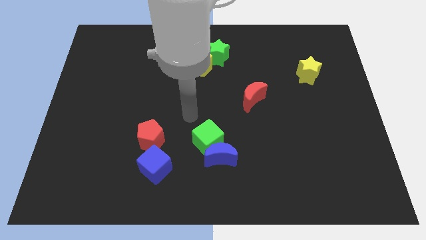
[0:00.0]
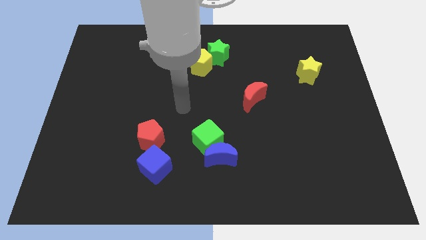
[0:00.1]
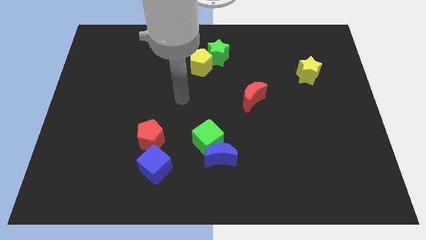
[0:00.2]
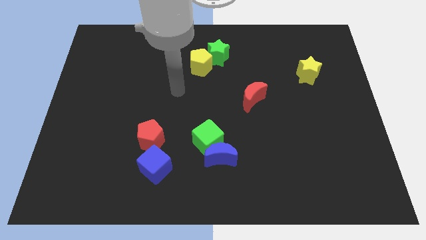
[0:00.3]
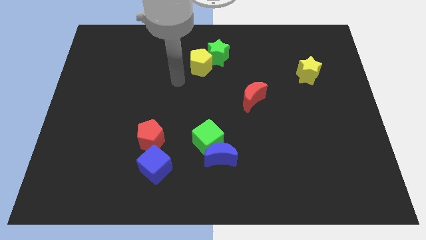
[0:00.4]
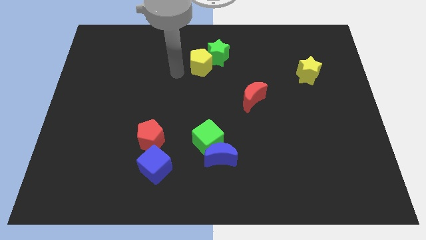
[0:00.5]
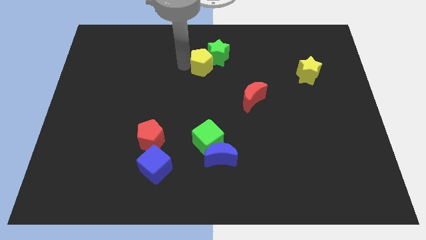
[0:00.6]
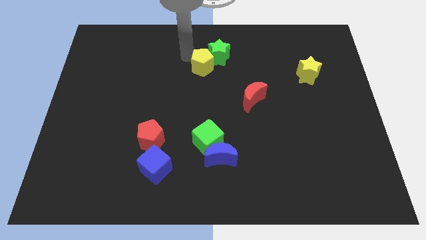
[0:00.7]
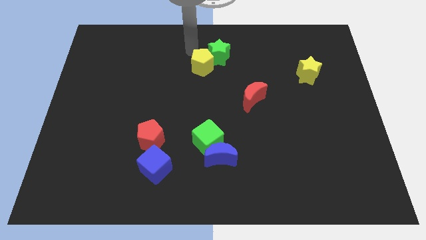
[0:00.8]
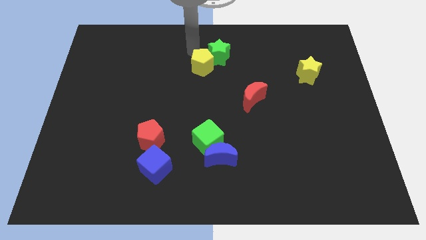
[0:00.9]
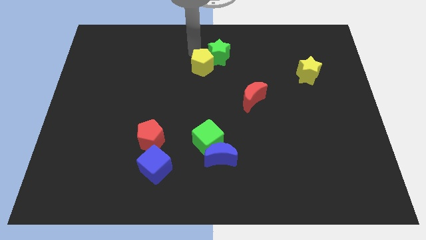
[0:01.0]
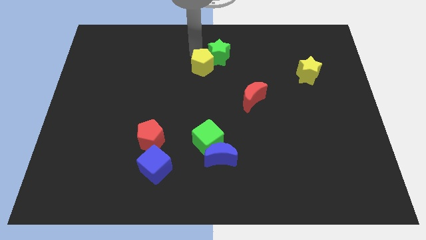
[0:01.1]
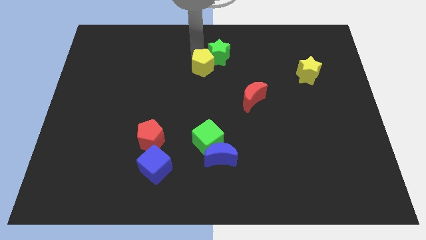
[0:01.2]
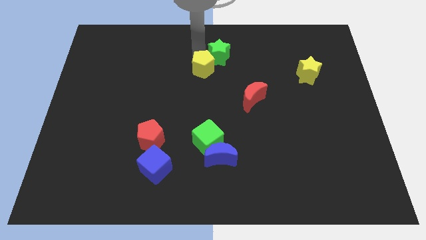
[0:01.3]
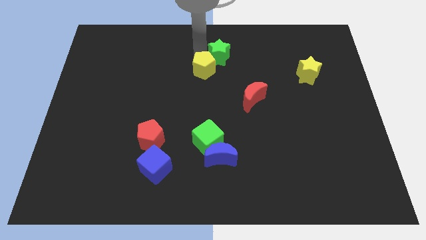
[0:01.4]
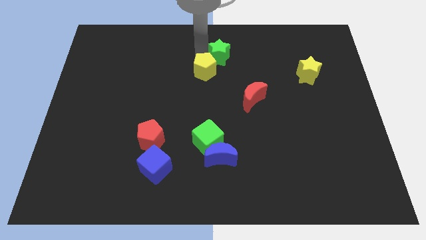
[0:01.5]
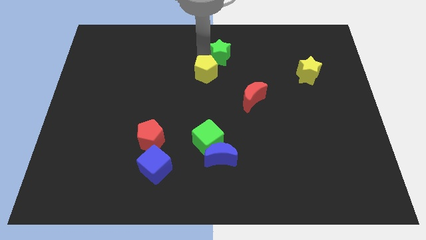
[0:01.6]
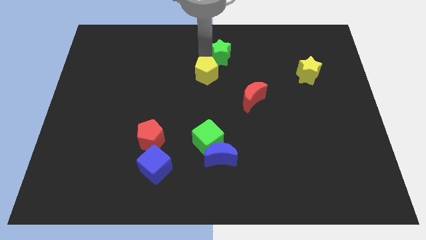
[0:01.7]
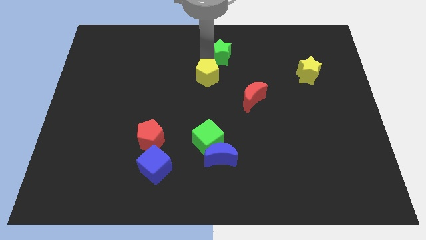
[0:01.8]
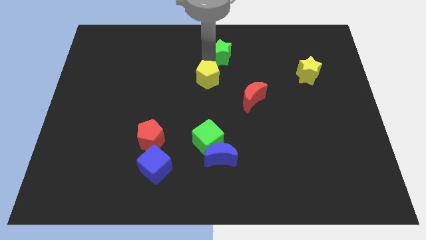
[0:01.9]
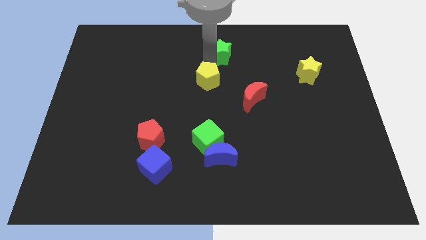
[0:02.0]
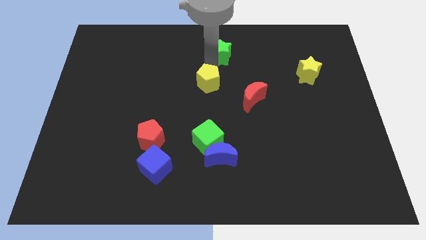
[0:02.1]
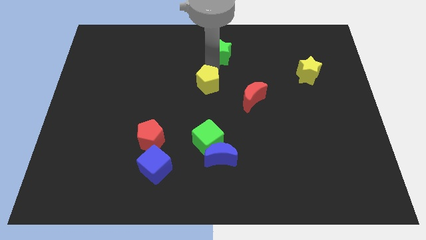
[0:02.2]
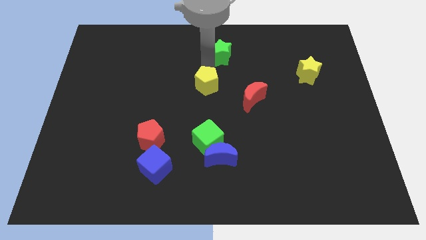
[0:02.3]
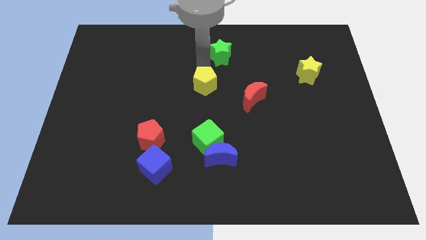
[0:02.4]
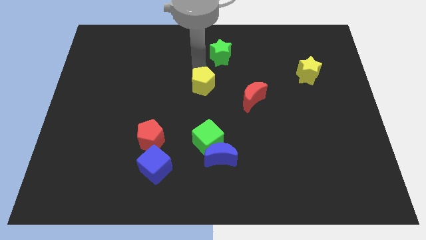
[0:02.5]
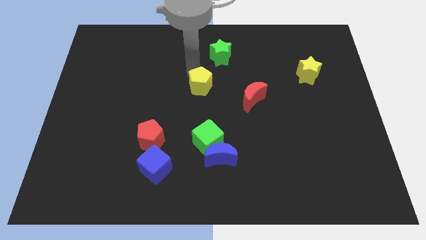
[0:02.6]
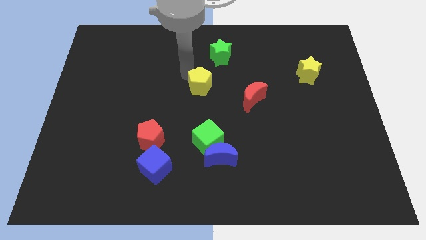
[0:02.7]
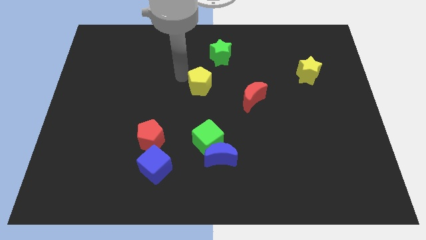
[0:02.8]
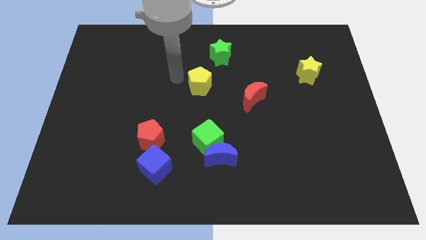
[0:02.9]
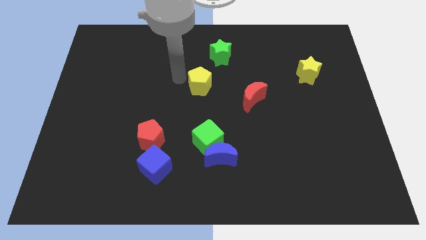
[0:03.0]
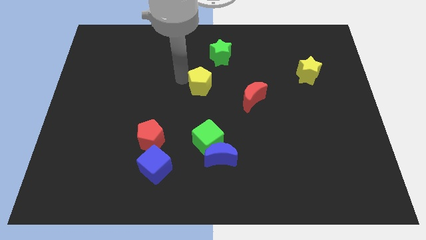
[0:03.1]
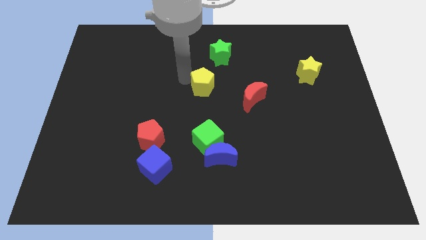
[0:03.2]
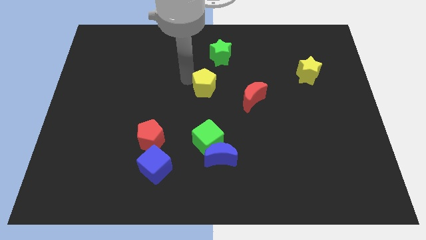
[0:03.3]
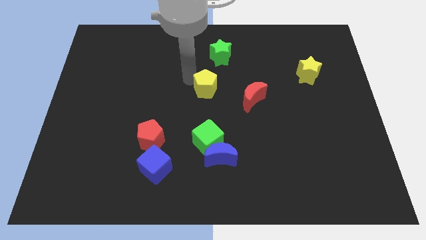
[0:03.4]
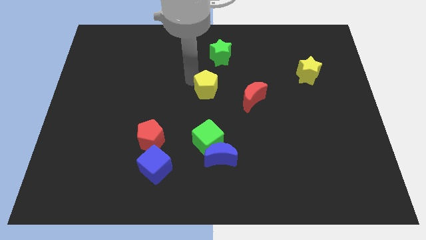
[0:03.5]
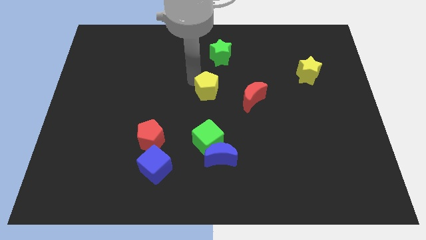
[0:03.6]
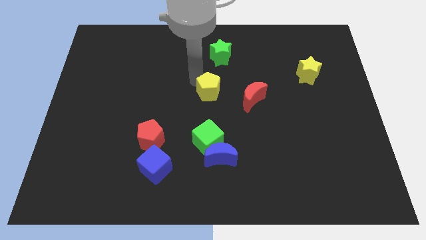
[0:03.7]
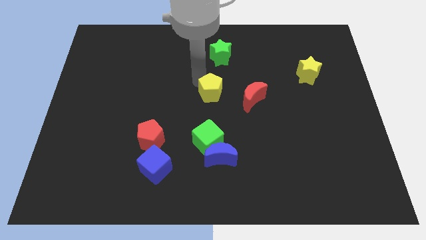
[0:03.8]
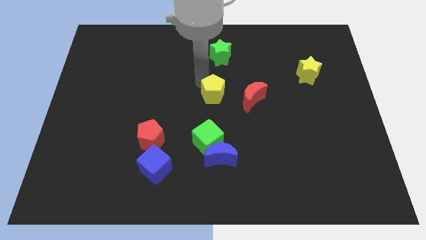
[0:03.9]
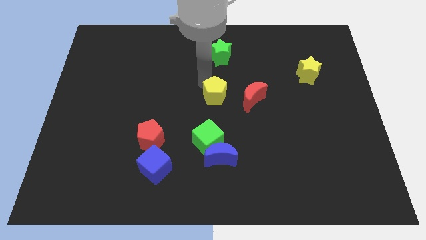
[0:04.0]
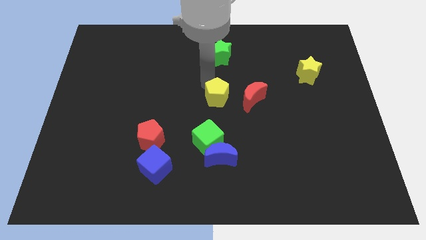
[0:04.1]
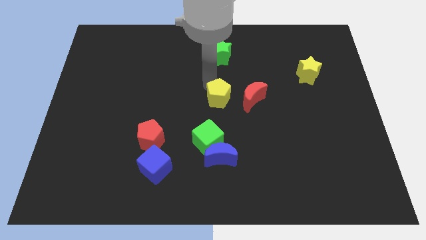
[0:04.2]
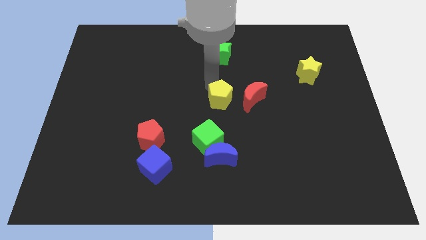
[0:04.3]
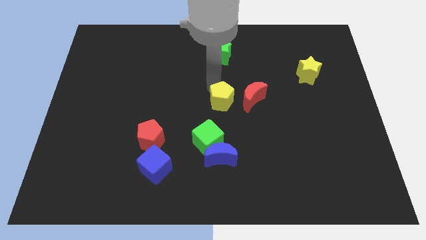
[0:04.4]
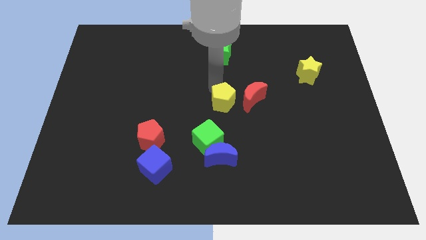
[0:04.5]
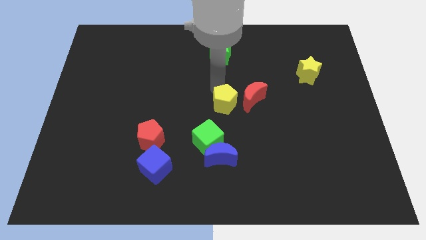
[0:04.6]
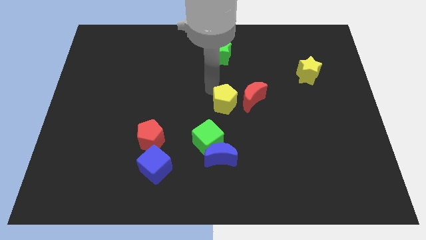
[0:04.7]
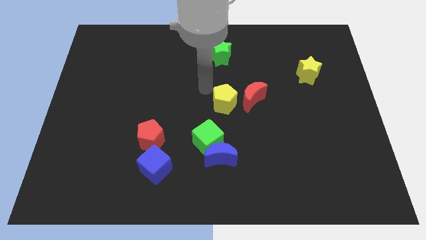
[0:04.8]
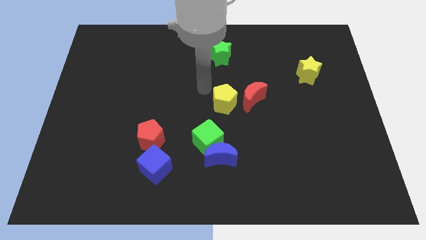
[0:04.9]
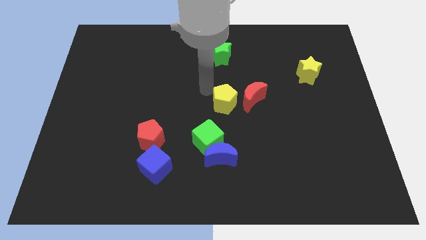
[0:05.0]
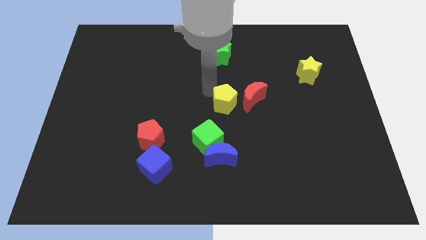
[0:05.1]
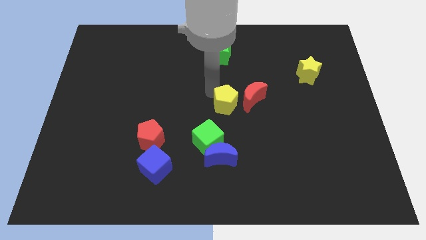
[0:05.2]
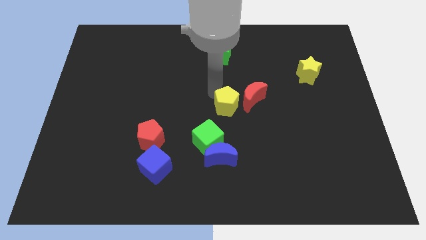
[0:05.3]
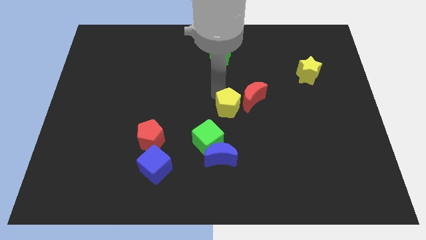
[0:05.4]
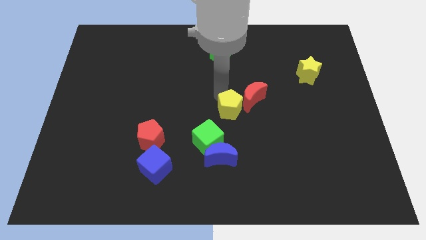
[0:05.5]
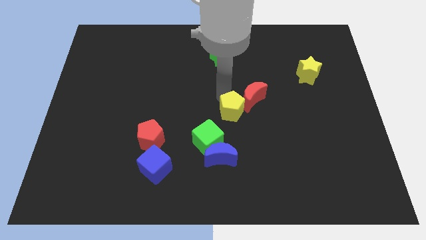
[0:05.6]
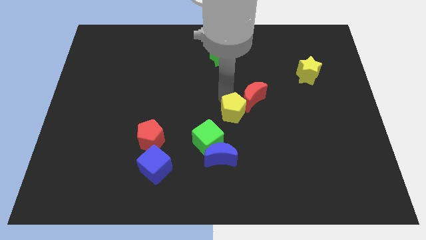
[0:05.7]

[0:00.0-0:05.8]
slide the yellow pentagon to the bottom of the red moon
